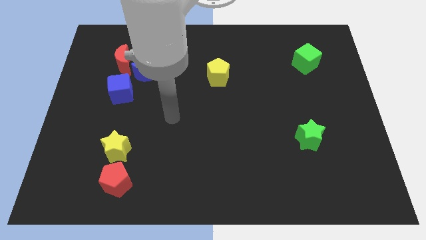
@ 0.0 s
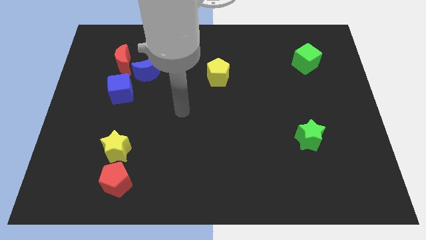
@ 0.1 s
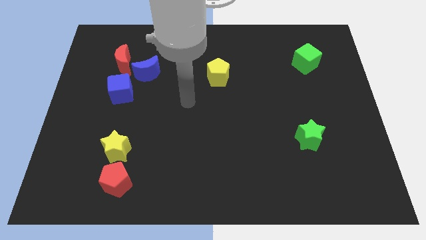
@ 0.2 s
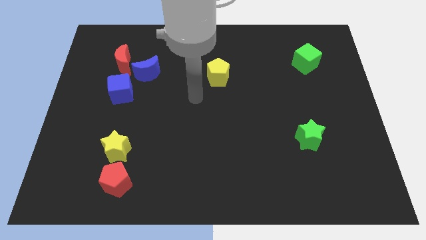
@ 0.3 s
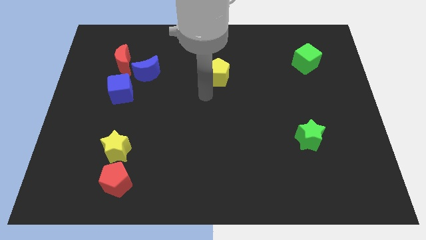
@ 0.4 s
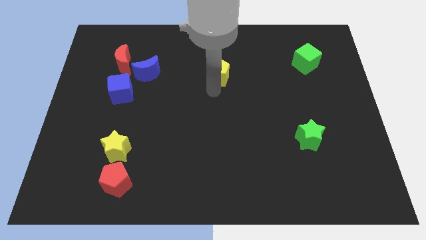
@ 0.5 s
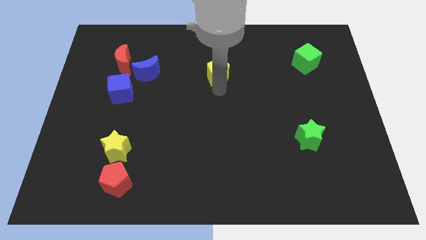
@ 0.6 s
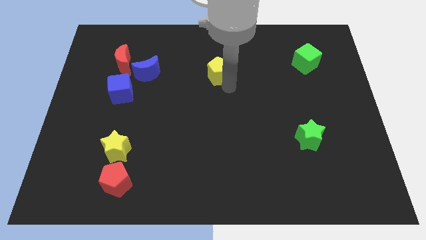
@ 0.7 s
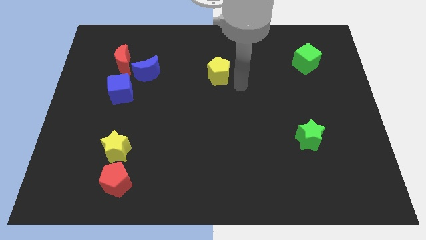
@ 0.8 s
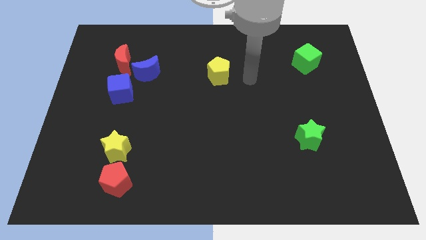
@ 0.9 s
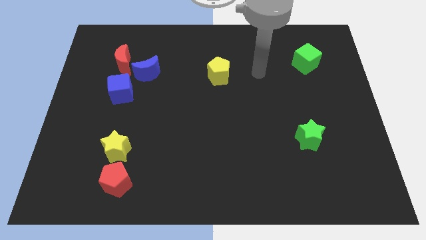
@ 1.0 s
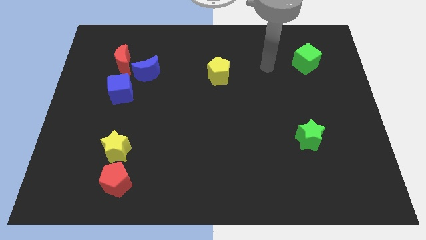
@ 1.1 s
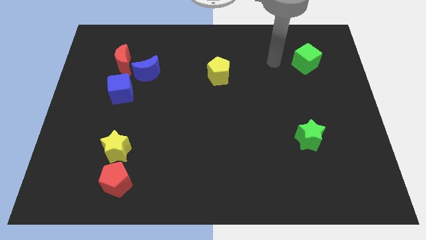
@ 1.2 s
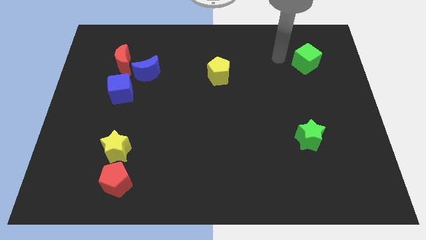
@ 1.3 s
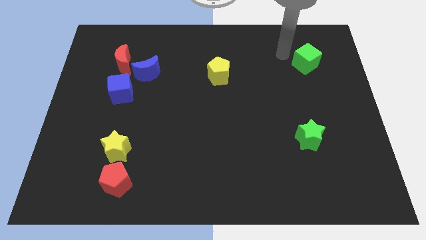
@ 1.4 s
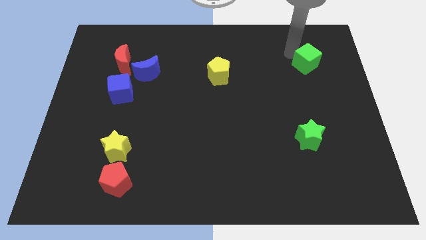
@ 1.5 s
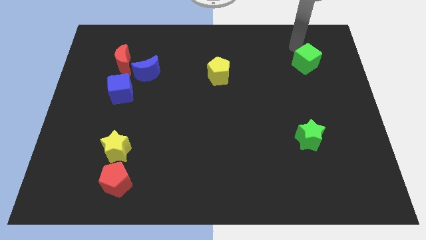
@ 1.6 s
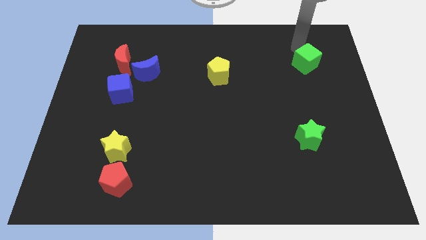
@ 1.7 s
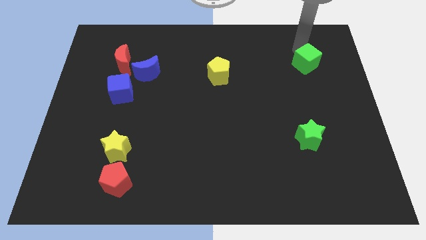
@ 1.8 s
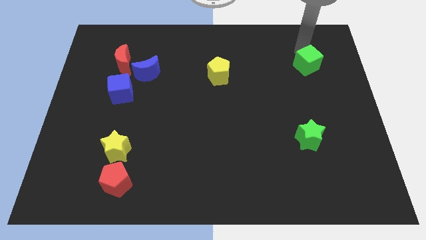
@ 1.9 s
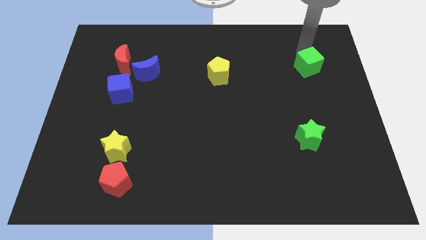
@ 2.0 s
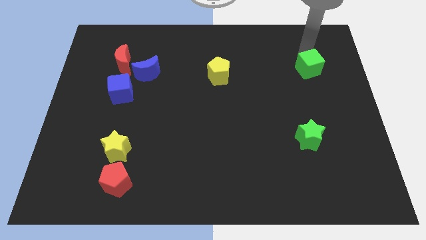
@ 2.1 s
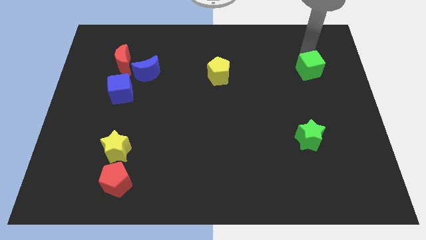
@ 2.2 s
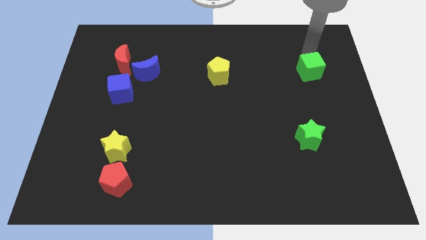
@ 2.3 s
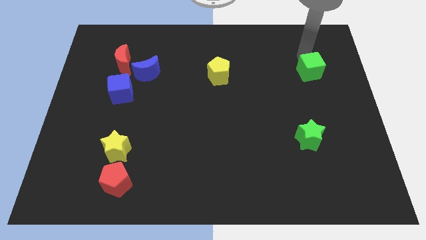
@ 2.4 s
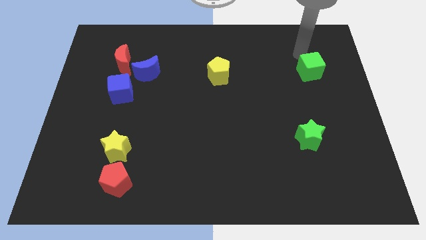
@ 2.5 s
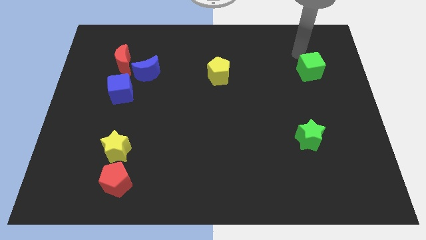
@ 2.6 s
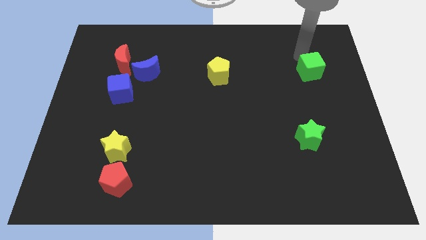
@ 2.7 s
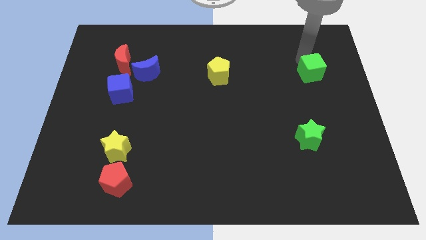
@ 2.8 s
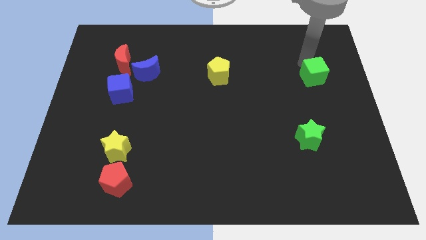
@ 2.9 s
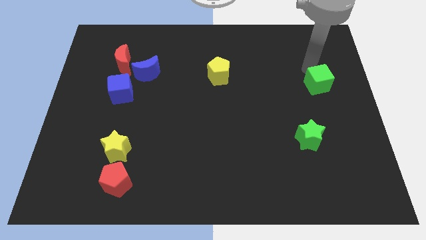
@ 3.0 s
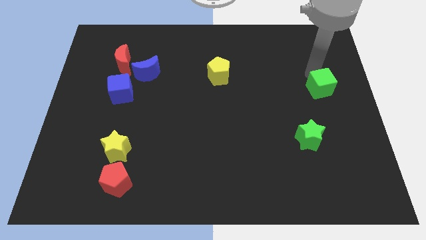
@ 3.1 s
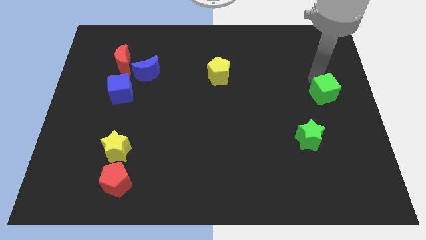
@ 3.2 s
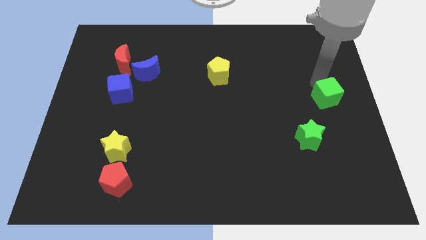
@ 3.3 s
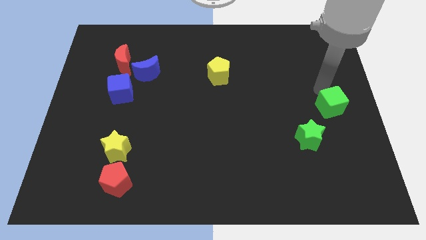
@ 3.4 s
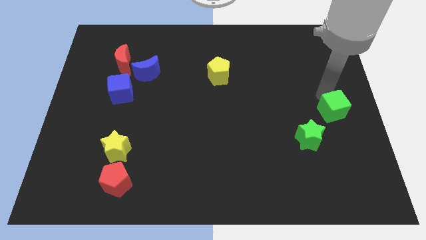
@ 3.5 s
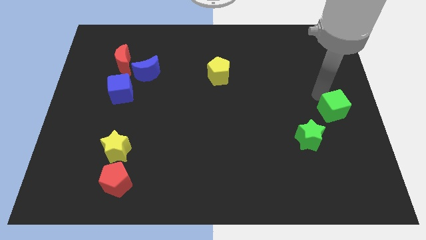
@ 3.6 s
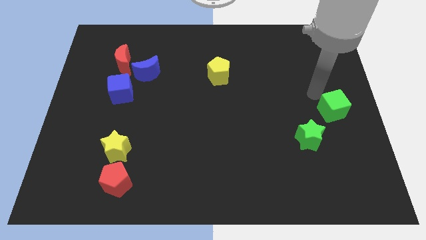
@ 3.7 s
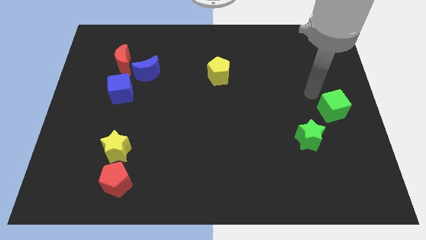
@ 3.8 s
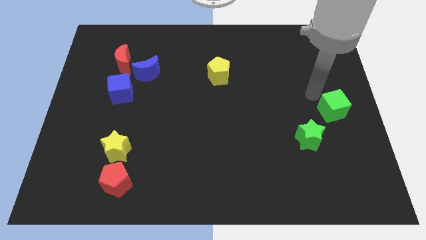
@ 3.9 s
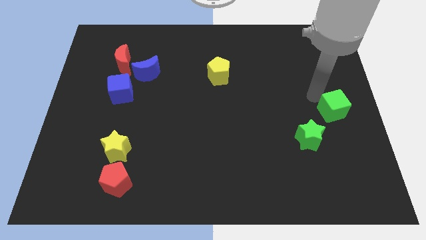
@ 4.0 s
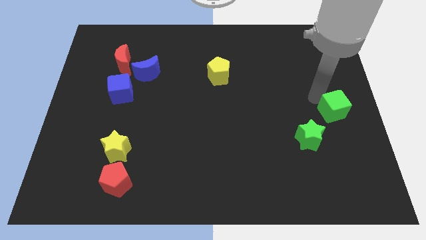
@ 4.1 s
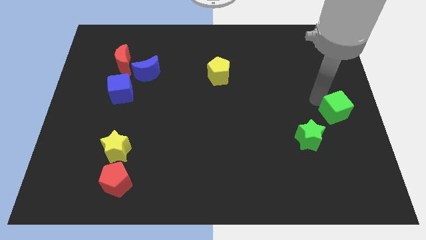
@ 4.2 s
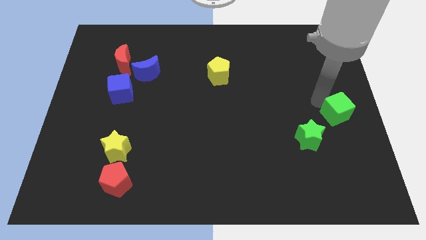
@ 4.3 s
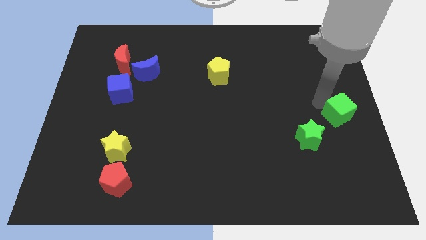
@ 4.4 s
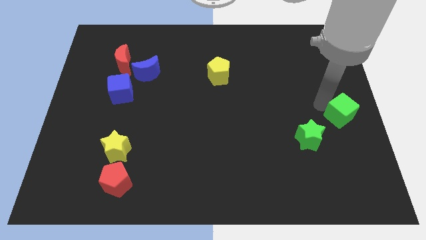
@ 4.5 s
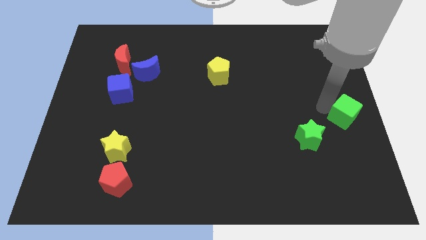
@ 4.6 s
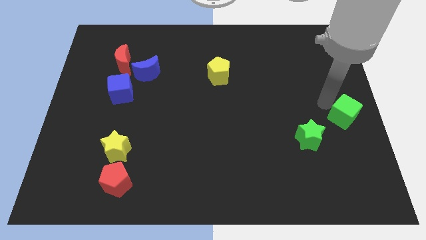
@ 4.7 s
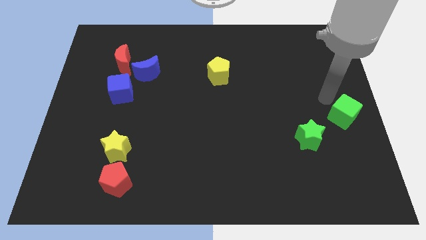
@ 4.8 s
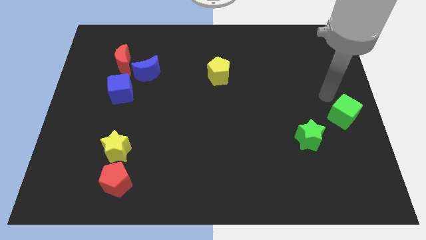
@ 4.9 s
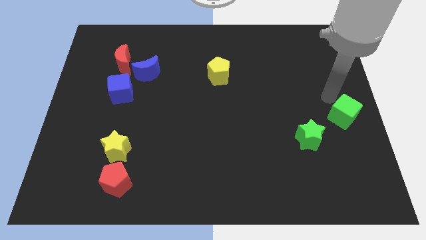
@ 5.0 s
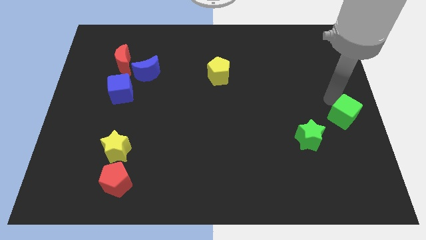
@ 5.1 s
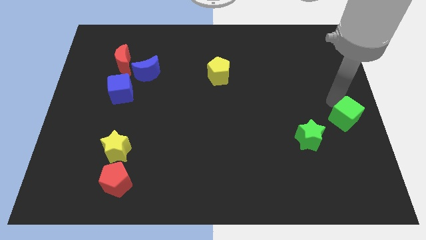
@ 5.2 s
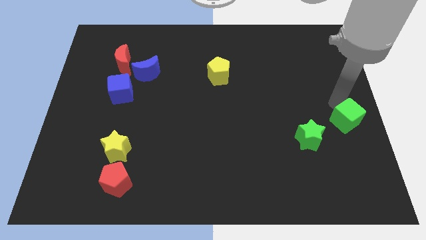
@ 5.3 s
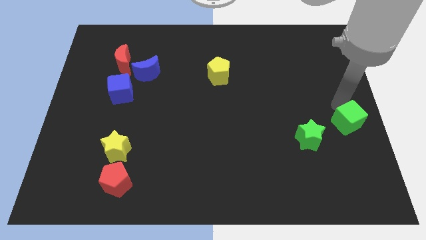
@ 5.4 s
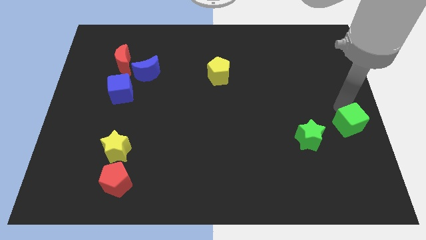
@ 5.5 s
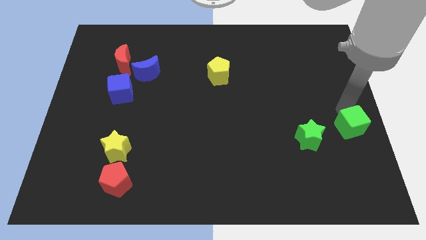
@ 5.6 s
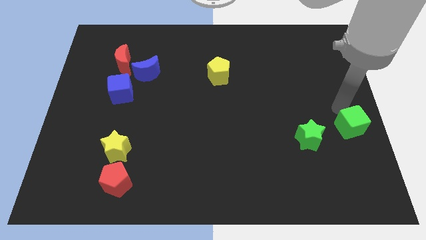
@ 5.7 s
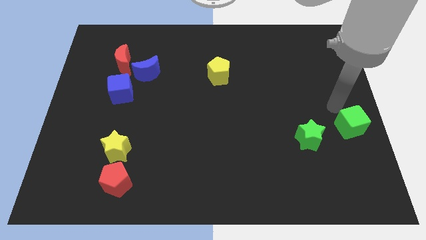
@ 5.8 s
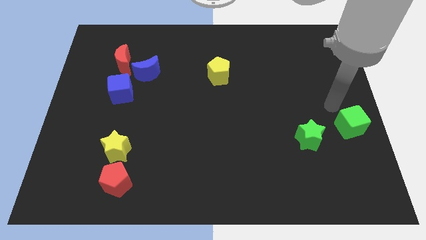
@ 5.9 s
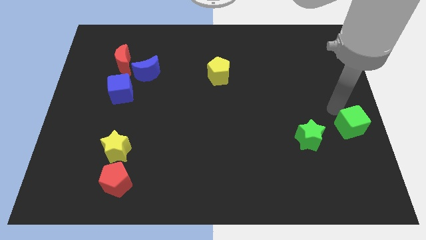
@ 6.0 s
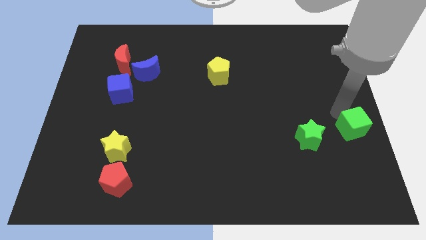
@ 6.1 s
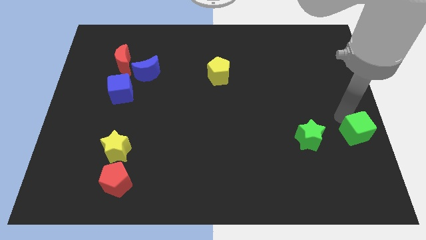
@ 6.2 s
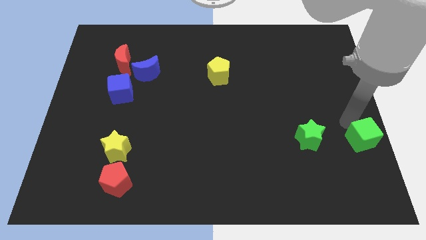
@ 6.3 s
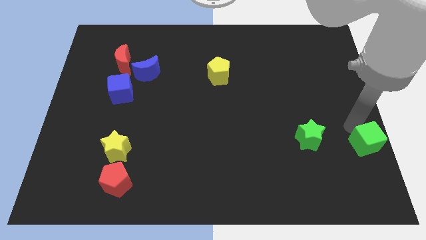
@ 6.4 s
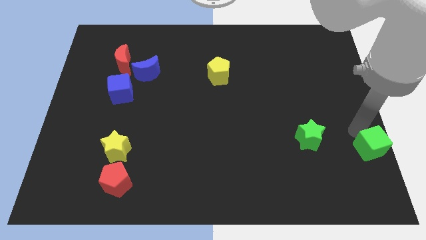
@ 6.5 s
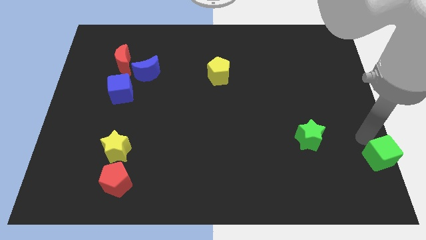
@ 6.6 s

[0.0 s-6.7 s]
put the green cube to the bottom right
